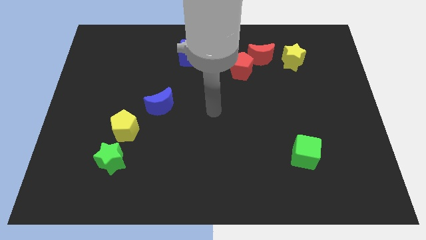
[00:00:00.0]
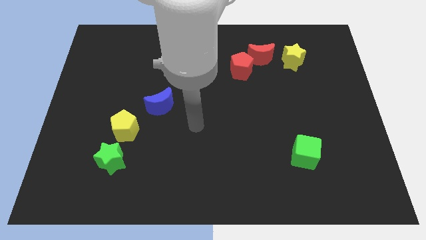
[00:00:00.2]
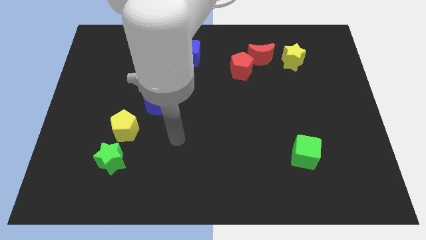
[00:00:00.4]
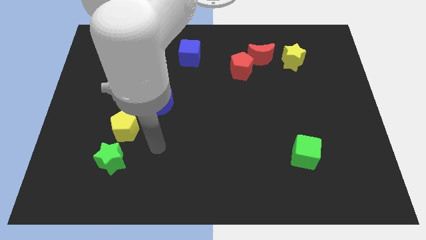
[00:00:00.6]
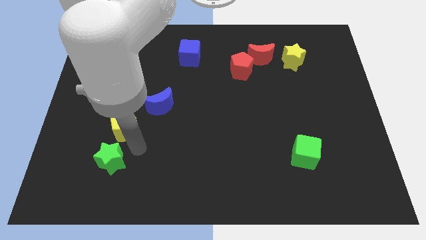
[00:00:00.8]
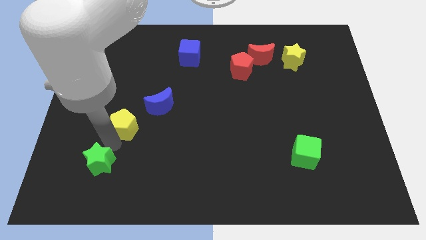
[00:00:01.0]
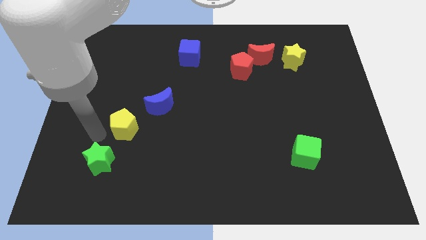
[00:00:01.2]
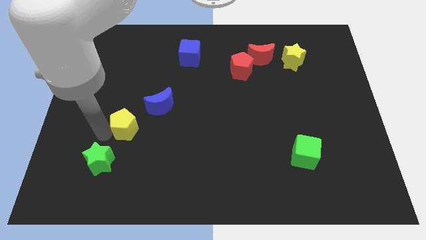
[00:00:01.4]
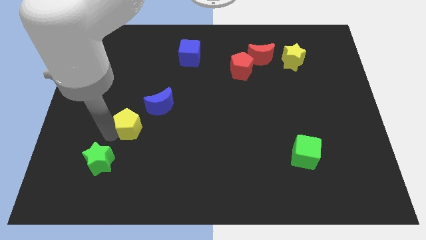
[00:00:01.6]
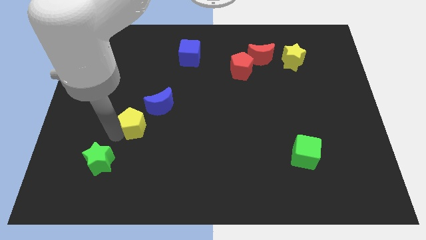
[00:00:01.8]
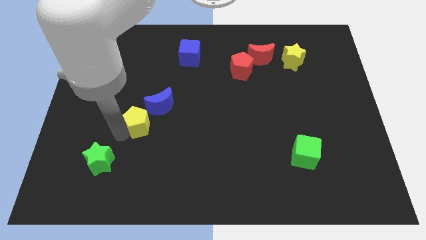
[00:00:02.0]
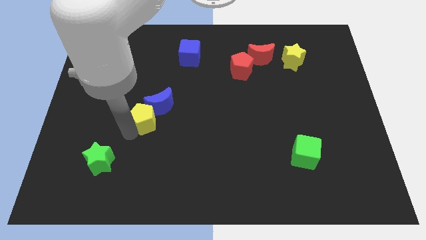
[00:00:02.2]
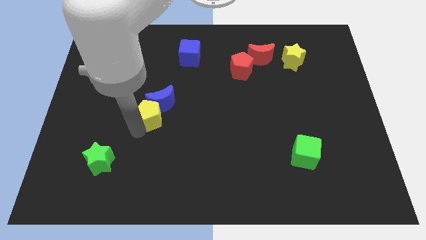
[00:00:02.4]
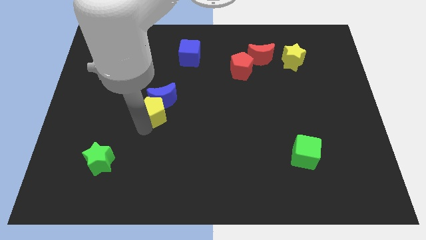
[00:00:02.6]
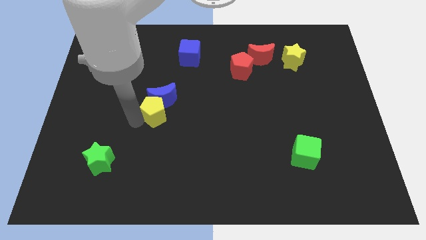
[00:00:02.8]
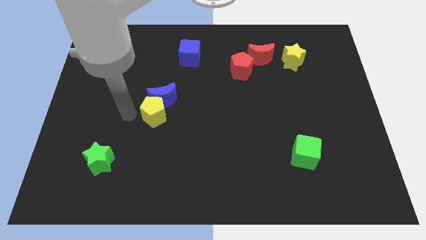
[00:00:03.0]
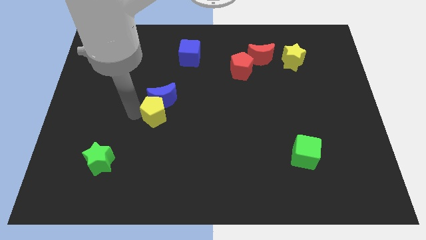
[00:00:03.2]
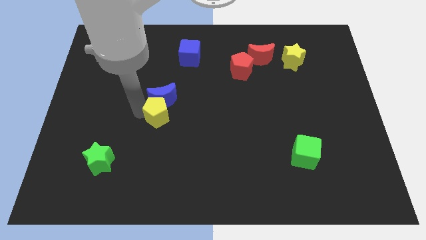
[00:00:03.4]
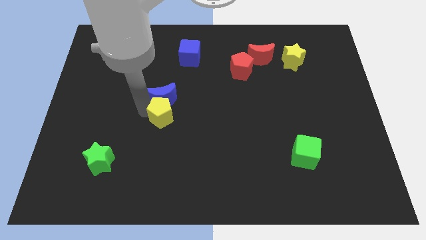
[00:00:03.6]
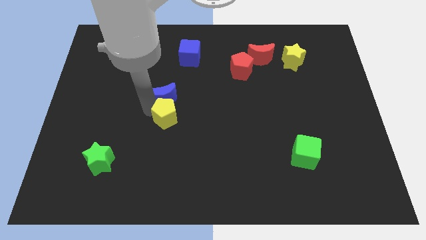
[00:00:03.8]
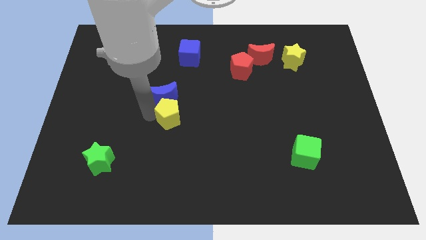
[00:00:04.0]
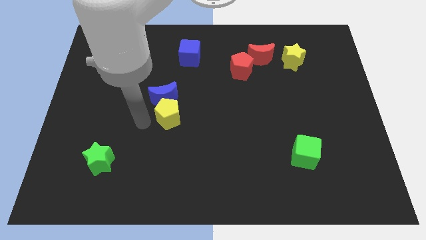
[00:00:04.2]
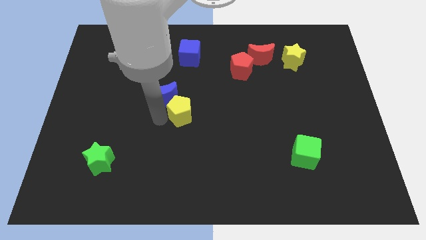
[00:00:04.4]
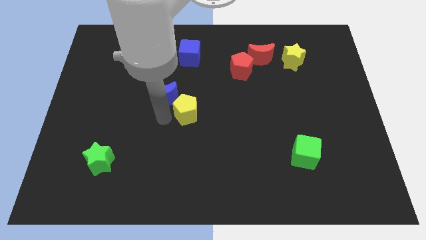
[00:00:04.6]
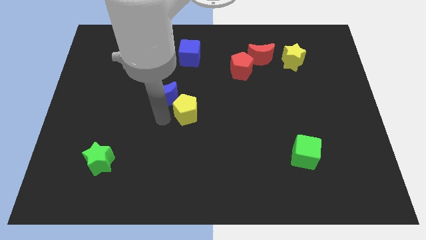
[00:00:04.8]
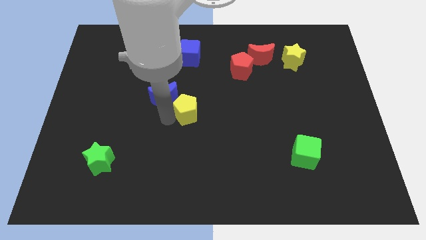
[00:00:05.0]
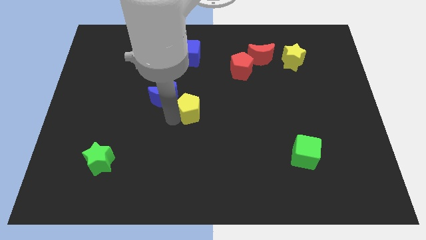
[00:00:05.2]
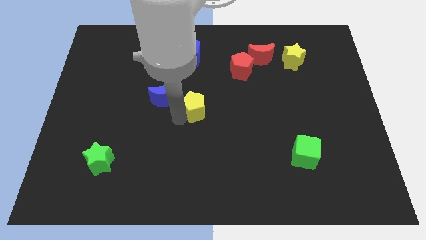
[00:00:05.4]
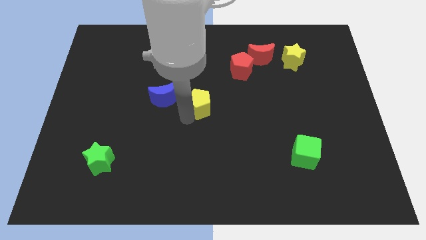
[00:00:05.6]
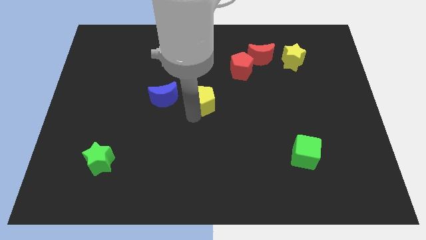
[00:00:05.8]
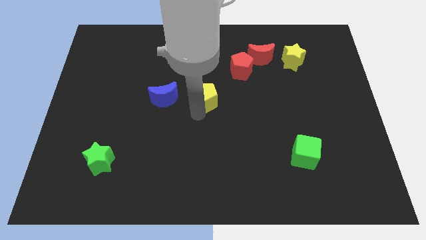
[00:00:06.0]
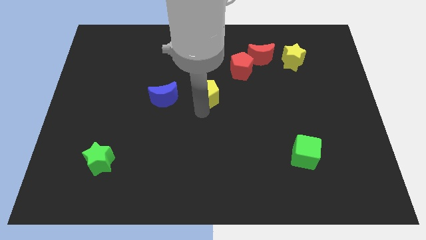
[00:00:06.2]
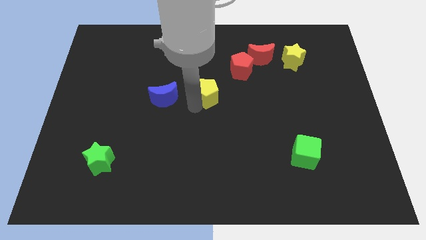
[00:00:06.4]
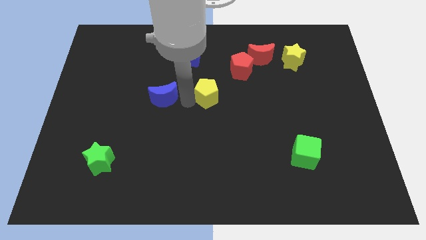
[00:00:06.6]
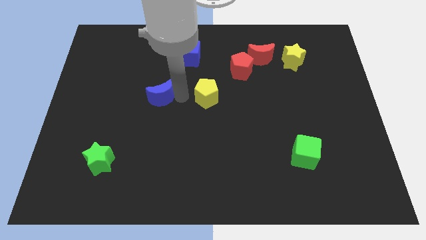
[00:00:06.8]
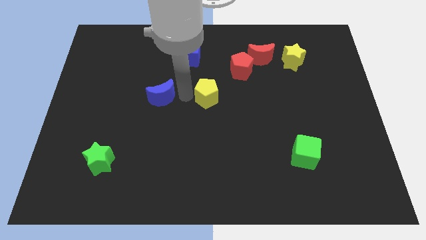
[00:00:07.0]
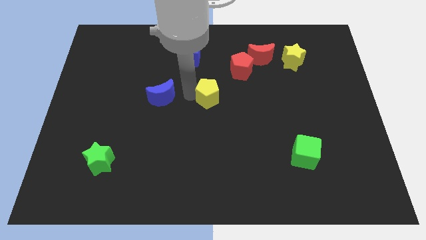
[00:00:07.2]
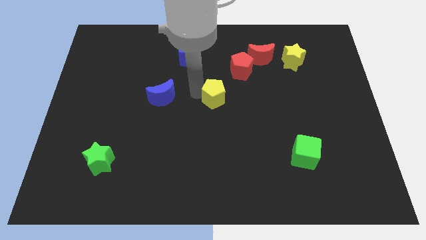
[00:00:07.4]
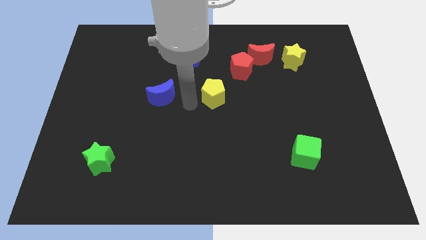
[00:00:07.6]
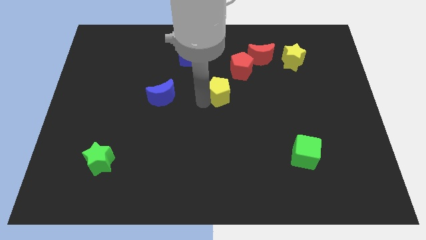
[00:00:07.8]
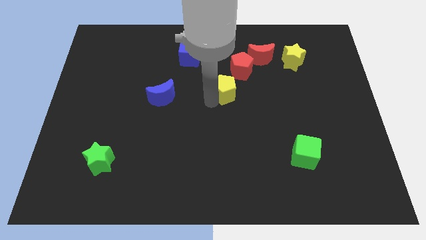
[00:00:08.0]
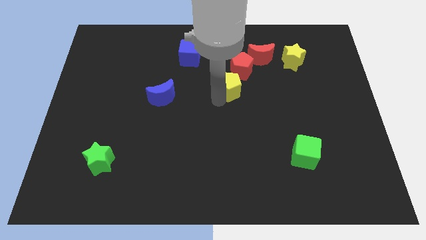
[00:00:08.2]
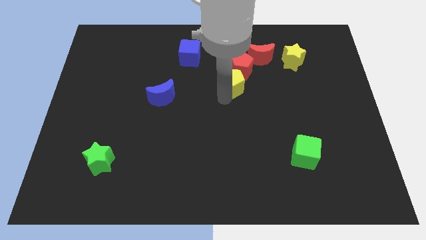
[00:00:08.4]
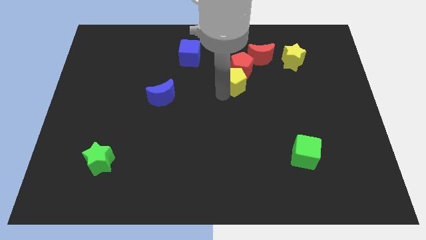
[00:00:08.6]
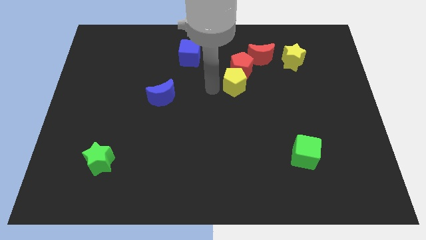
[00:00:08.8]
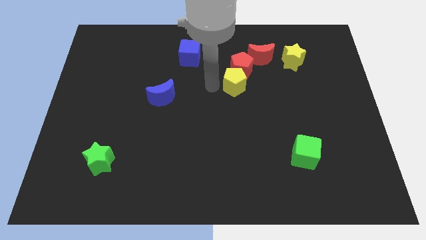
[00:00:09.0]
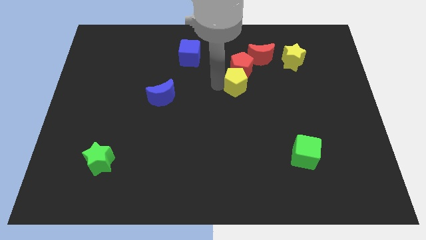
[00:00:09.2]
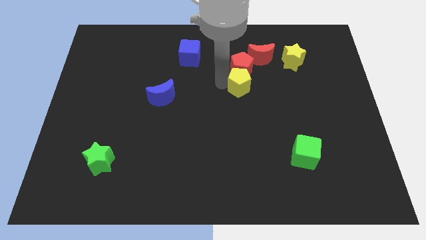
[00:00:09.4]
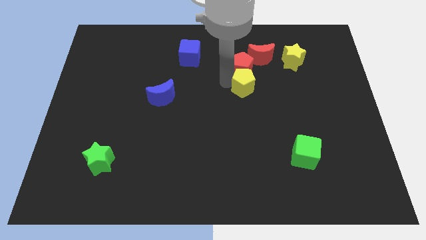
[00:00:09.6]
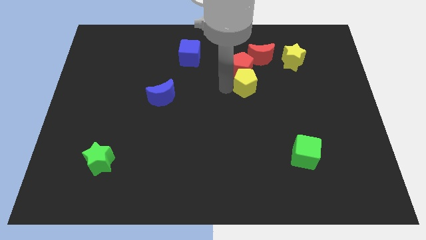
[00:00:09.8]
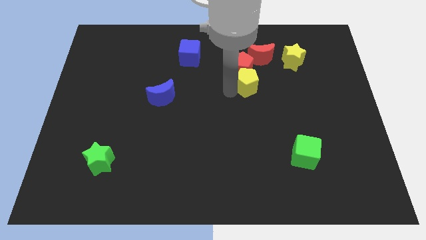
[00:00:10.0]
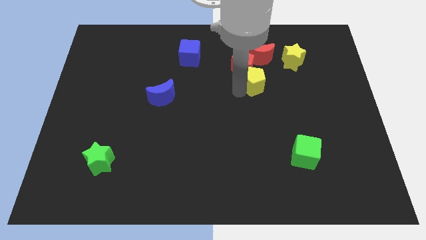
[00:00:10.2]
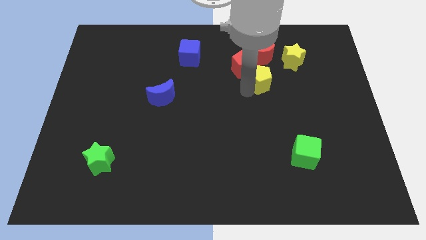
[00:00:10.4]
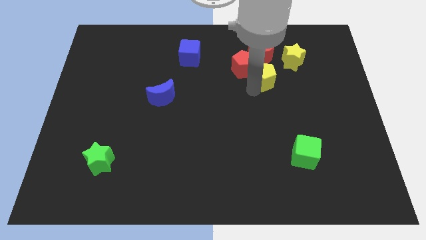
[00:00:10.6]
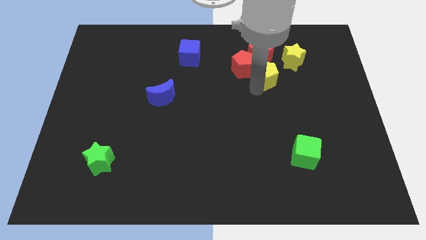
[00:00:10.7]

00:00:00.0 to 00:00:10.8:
push the yellow pentagon to the bottom right side of the red moon

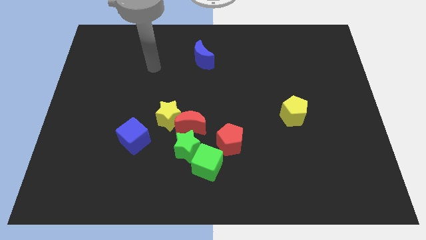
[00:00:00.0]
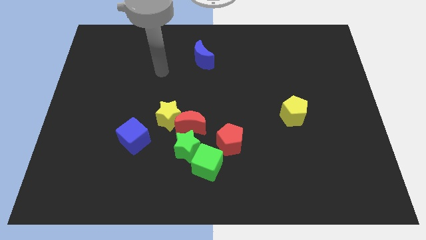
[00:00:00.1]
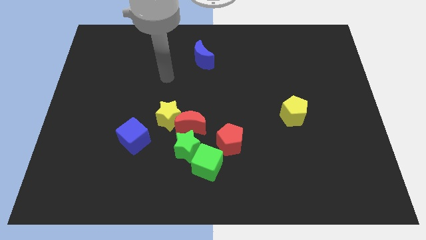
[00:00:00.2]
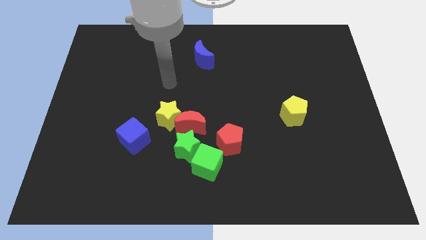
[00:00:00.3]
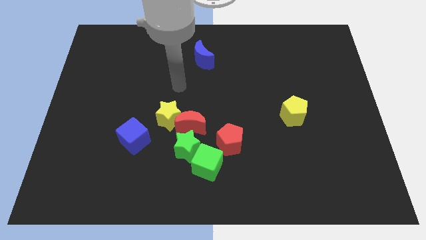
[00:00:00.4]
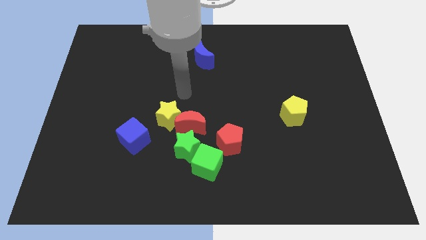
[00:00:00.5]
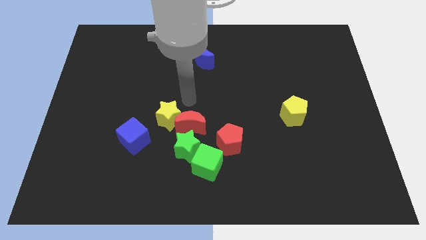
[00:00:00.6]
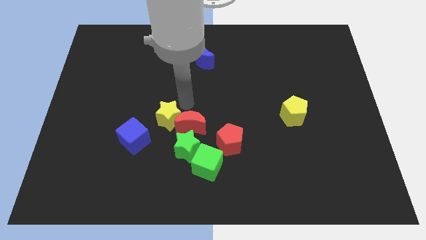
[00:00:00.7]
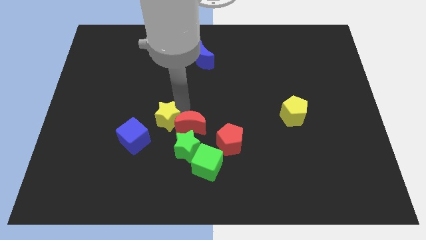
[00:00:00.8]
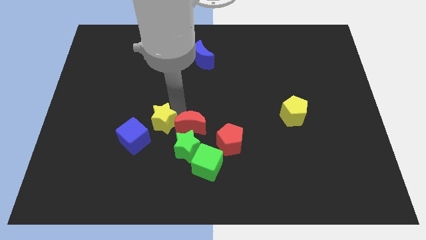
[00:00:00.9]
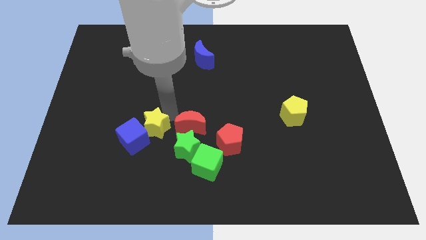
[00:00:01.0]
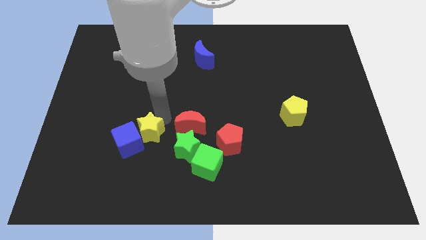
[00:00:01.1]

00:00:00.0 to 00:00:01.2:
put the yellow star left of the green star

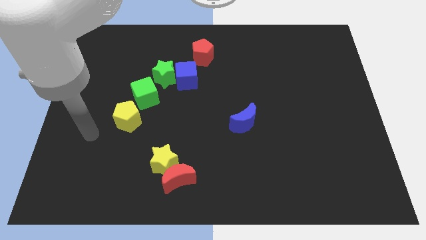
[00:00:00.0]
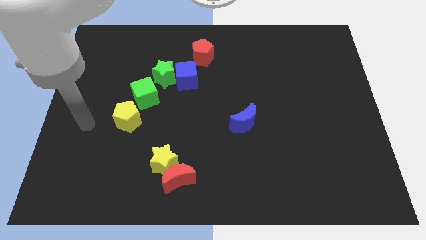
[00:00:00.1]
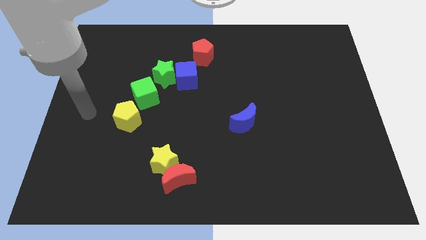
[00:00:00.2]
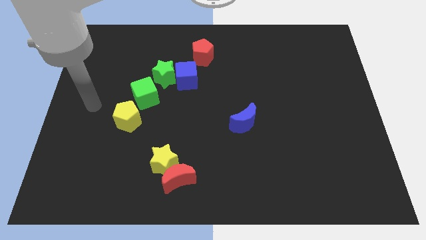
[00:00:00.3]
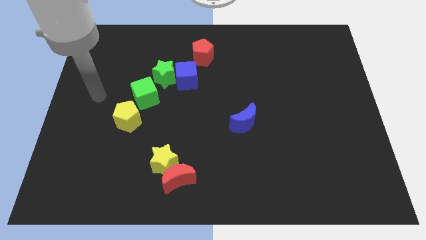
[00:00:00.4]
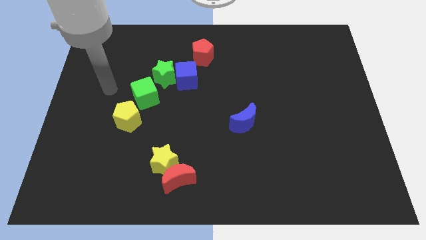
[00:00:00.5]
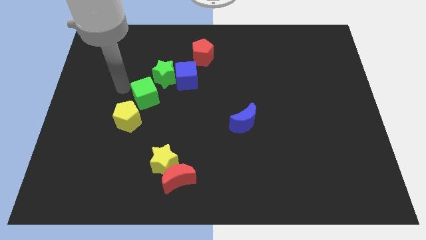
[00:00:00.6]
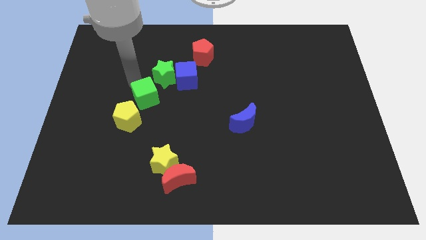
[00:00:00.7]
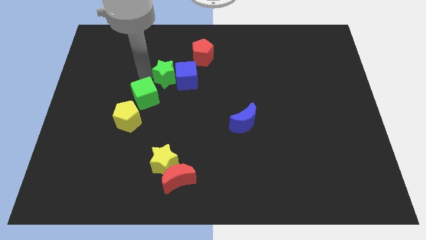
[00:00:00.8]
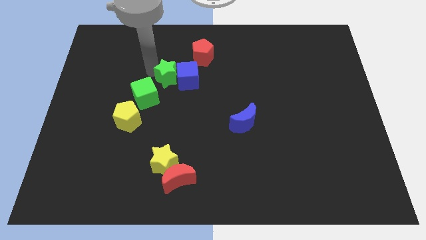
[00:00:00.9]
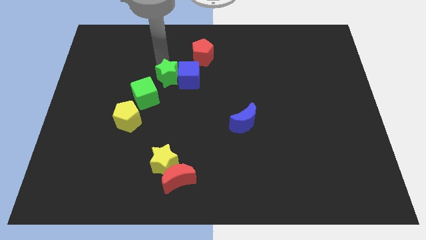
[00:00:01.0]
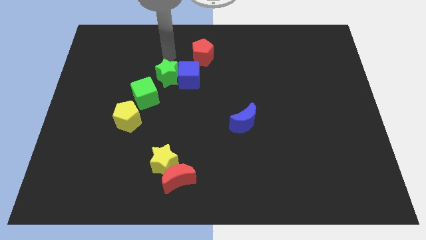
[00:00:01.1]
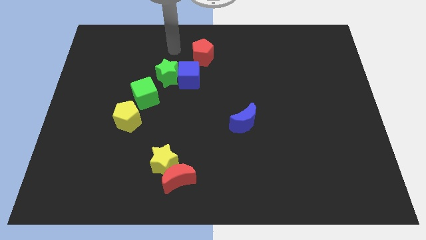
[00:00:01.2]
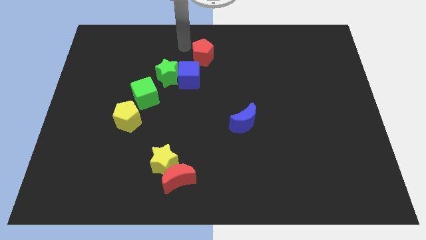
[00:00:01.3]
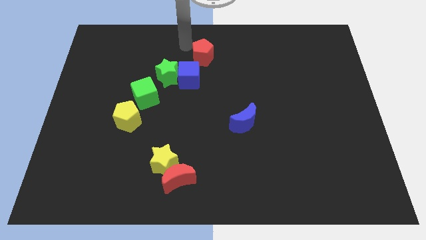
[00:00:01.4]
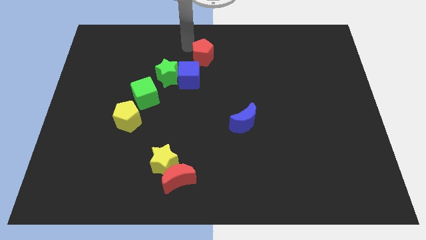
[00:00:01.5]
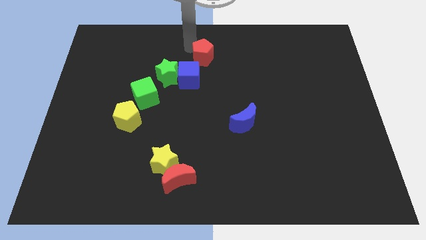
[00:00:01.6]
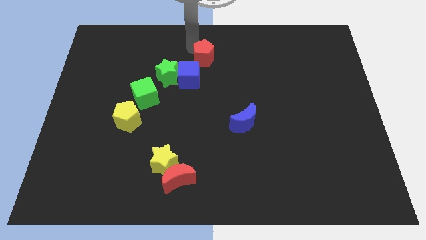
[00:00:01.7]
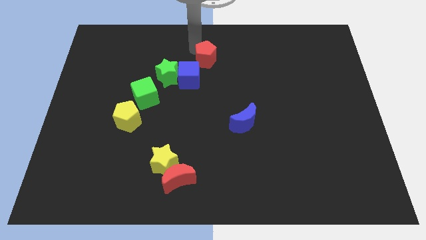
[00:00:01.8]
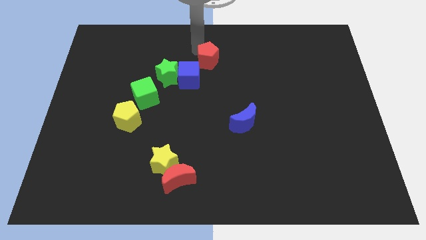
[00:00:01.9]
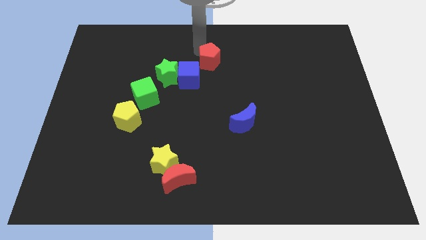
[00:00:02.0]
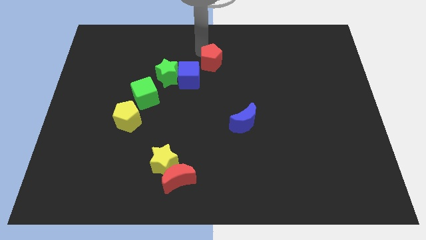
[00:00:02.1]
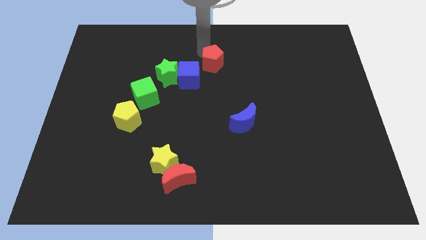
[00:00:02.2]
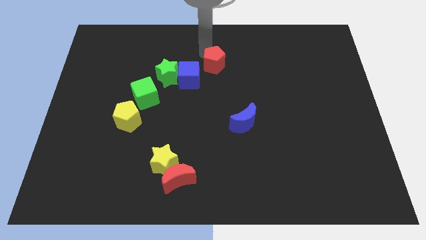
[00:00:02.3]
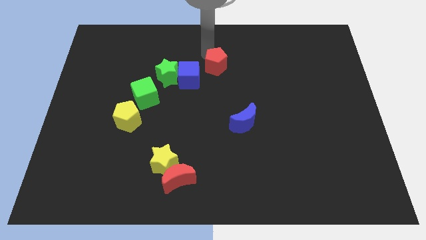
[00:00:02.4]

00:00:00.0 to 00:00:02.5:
push the red pentagon just right of the blue cube
